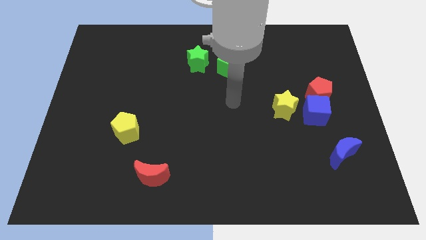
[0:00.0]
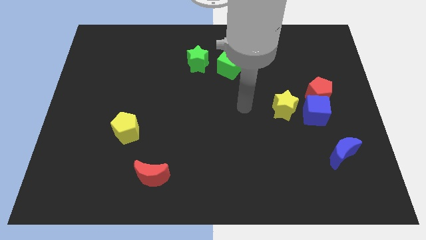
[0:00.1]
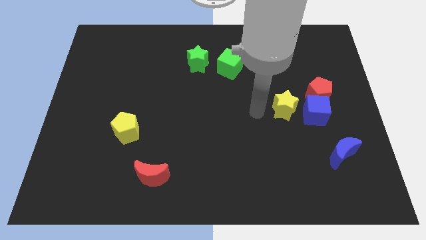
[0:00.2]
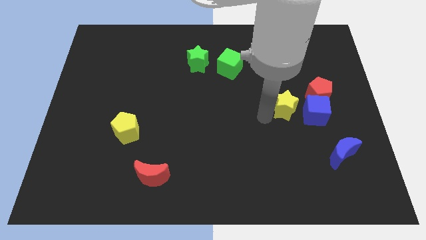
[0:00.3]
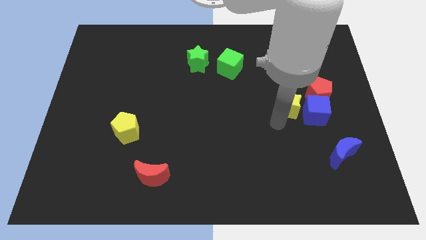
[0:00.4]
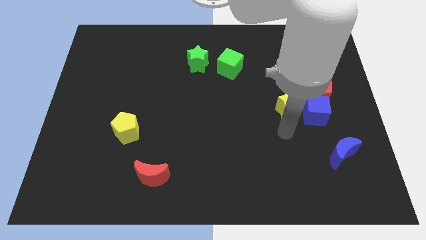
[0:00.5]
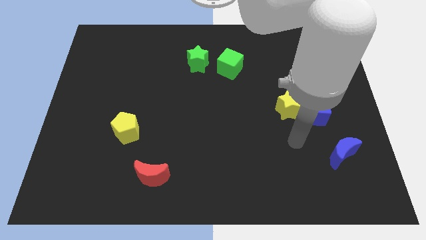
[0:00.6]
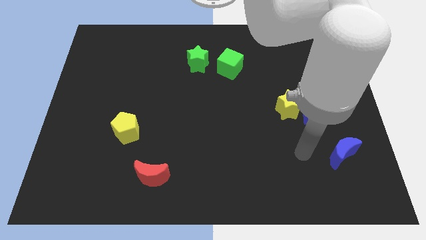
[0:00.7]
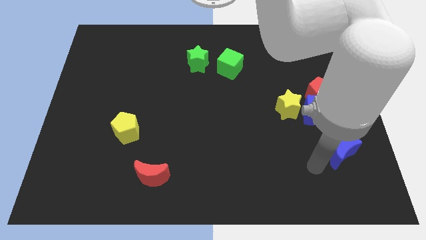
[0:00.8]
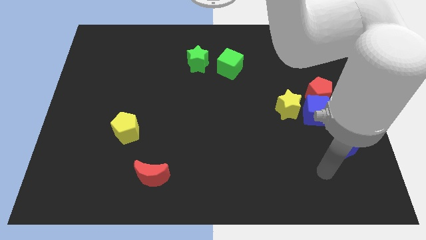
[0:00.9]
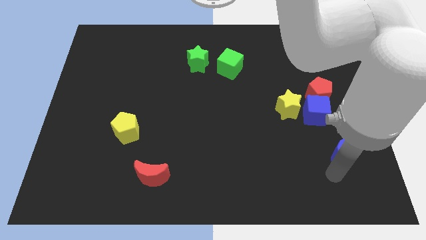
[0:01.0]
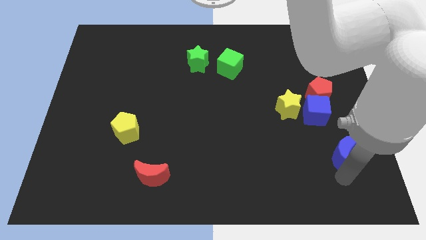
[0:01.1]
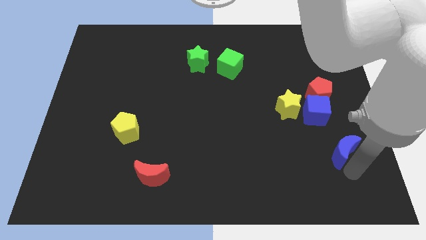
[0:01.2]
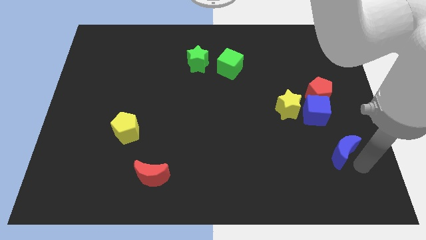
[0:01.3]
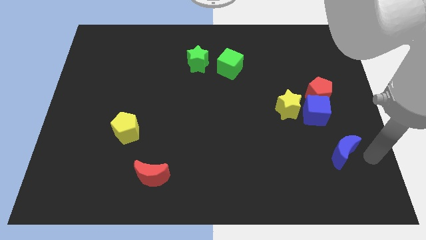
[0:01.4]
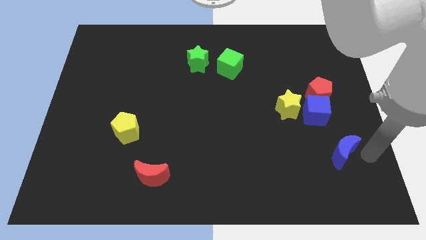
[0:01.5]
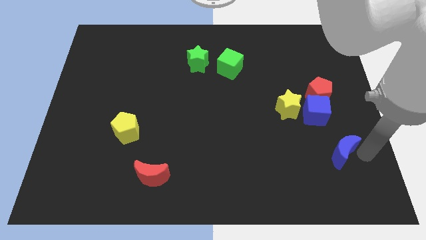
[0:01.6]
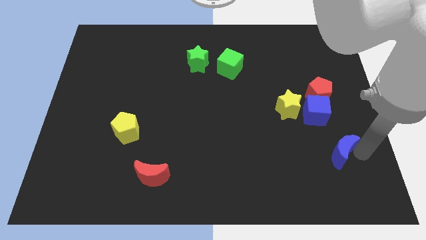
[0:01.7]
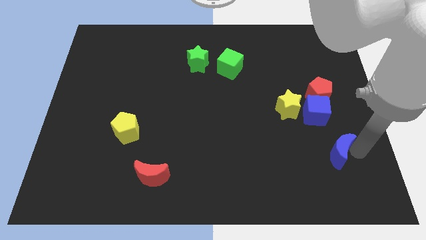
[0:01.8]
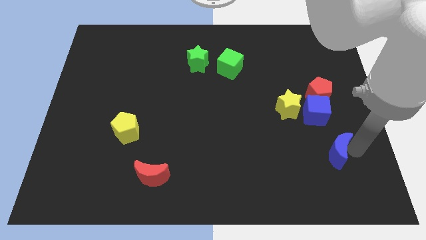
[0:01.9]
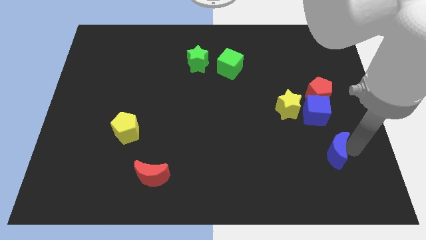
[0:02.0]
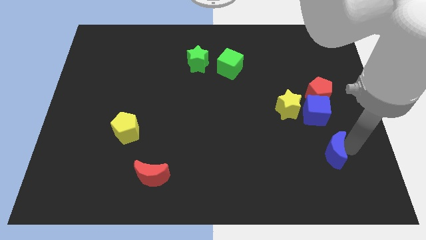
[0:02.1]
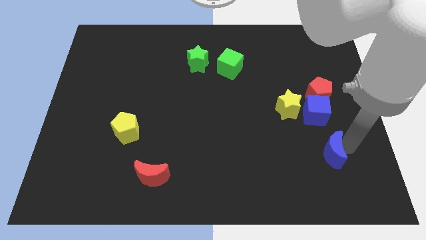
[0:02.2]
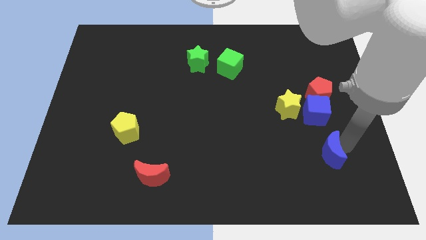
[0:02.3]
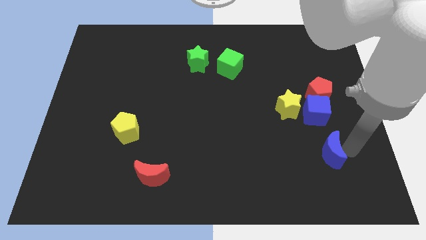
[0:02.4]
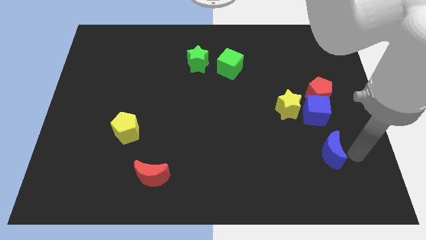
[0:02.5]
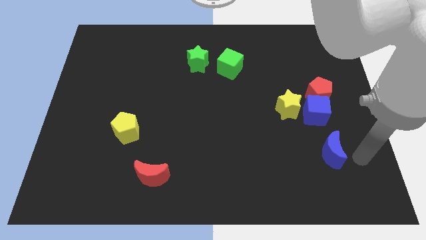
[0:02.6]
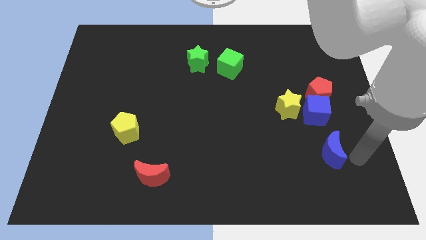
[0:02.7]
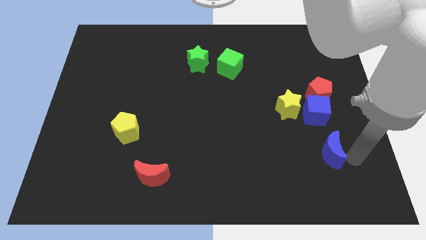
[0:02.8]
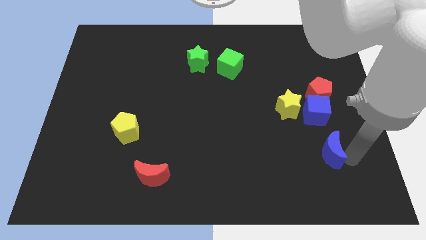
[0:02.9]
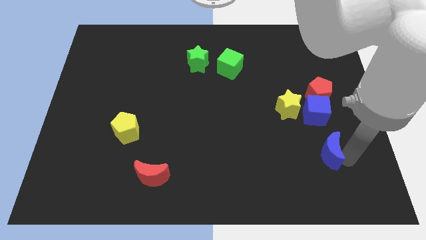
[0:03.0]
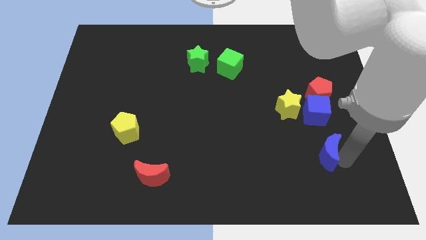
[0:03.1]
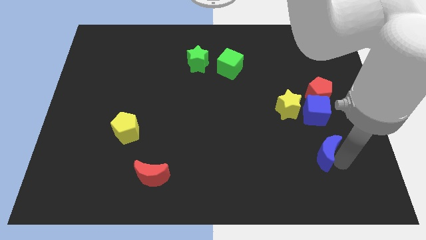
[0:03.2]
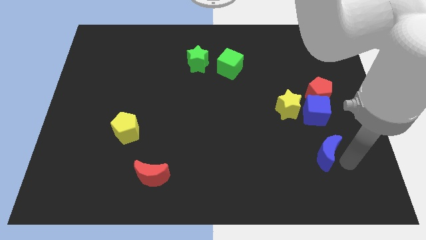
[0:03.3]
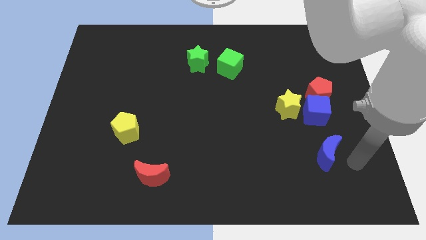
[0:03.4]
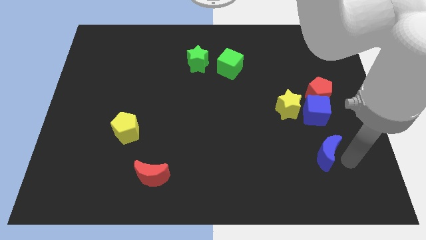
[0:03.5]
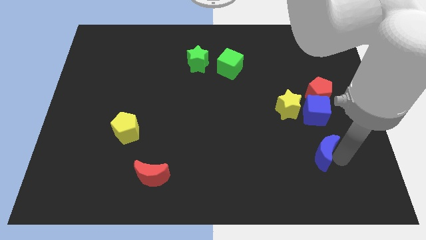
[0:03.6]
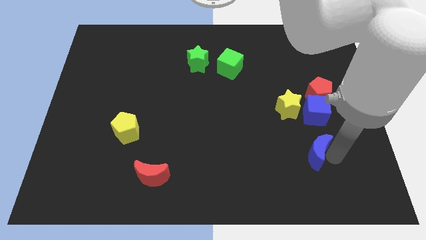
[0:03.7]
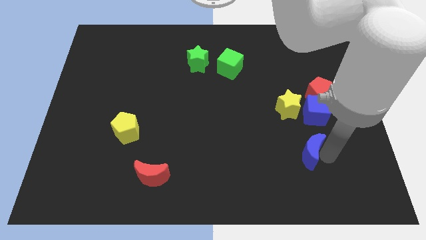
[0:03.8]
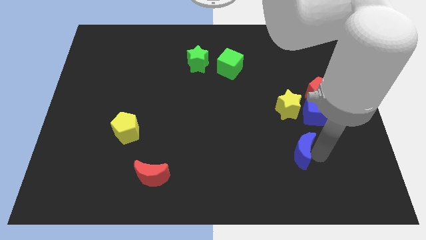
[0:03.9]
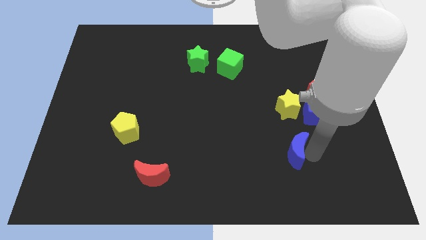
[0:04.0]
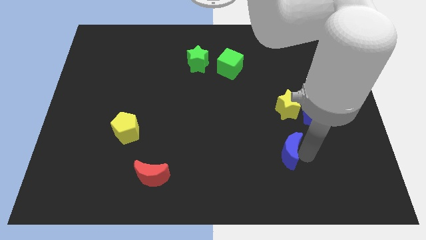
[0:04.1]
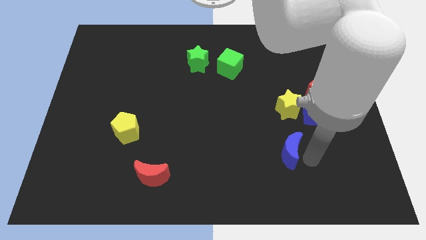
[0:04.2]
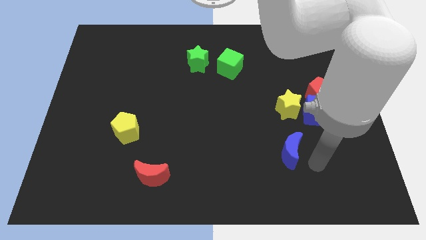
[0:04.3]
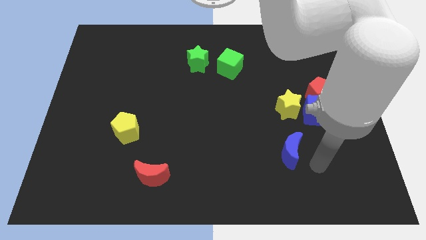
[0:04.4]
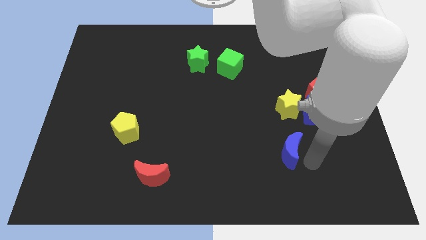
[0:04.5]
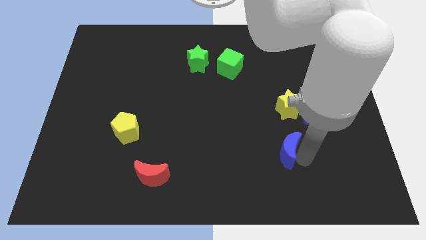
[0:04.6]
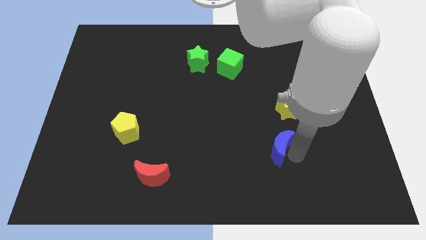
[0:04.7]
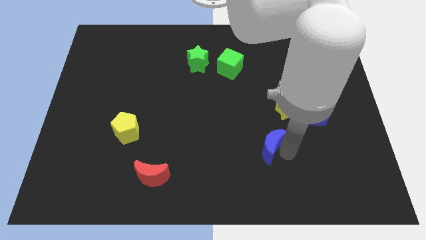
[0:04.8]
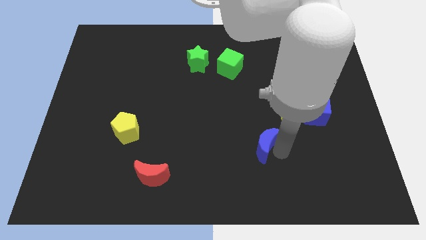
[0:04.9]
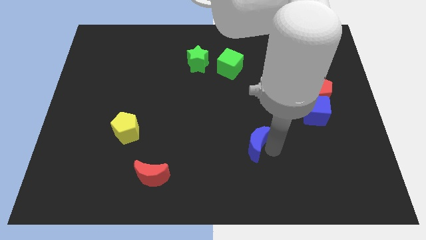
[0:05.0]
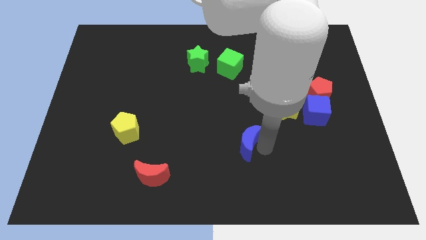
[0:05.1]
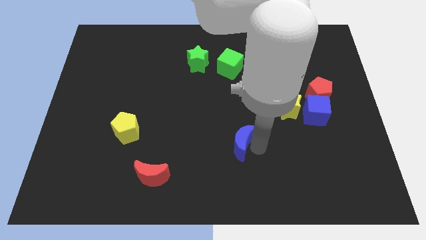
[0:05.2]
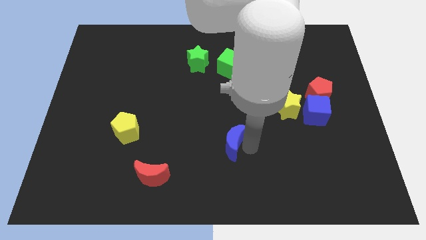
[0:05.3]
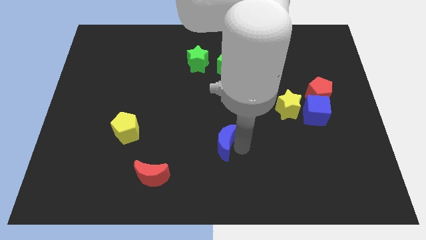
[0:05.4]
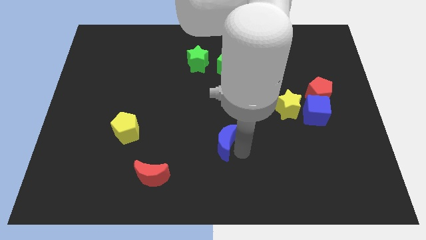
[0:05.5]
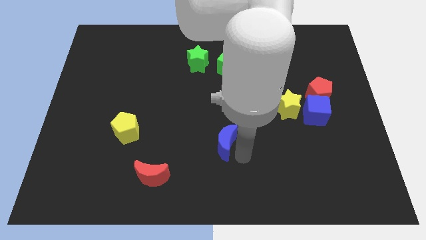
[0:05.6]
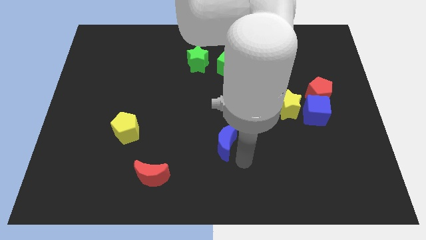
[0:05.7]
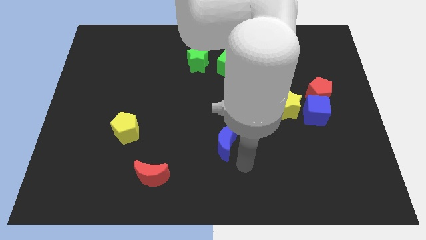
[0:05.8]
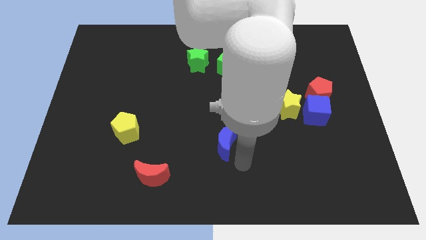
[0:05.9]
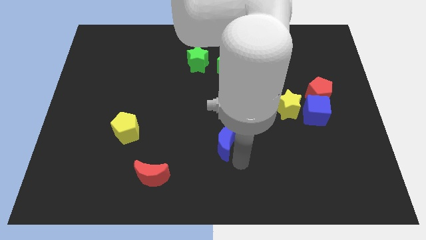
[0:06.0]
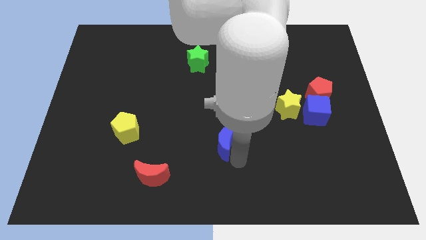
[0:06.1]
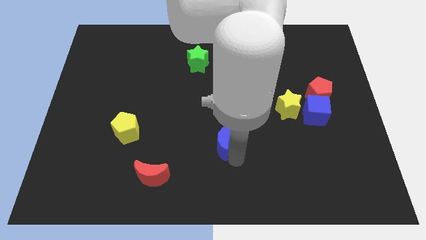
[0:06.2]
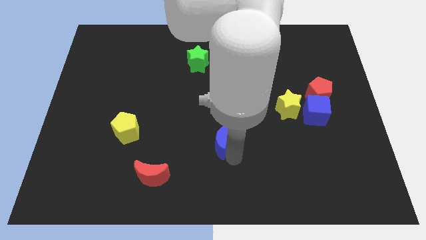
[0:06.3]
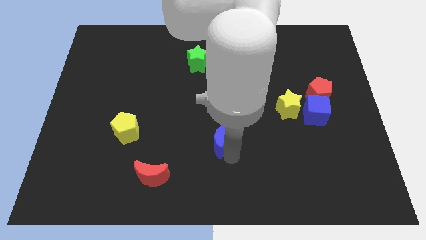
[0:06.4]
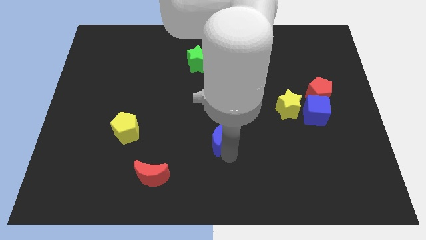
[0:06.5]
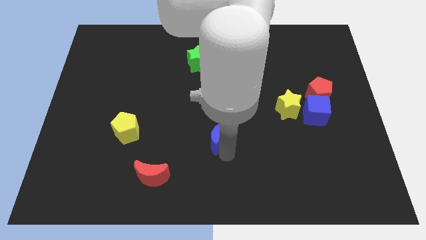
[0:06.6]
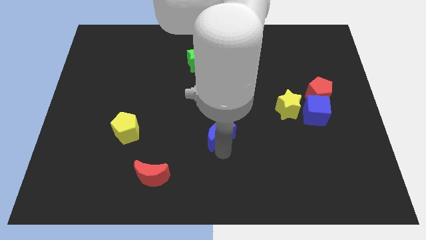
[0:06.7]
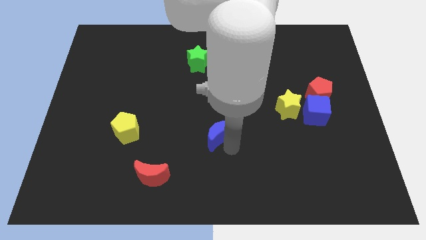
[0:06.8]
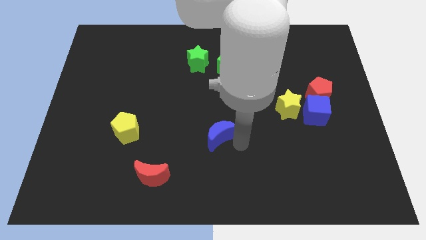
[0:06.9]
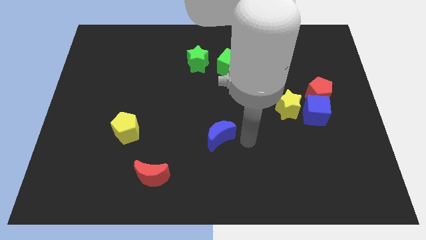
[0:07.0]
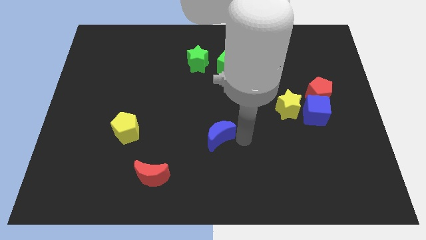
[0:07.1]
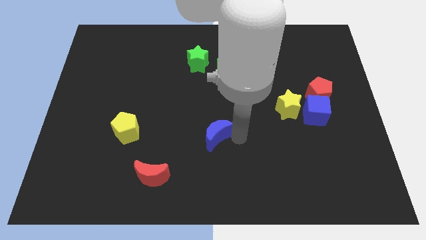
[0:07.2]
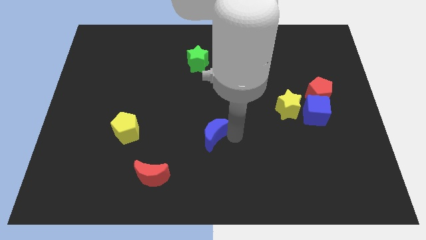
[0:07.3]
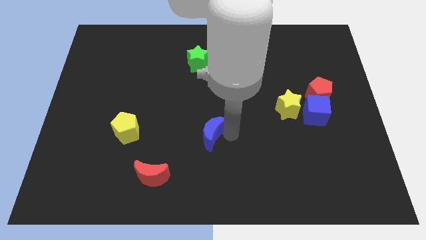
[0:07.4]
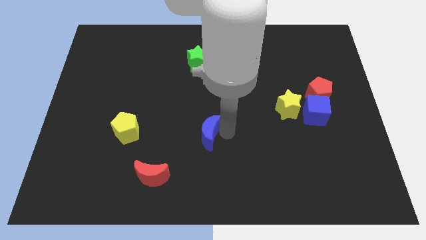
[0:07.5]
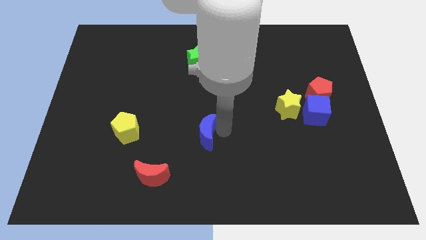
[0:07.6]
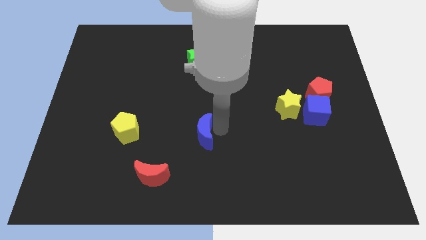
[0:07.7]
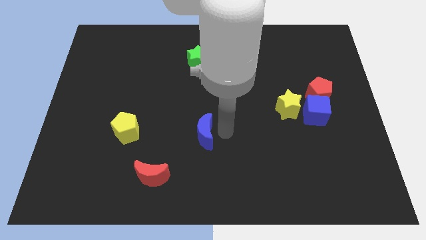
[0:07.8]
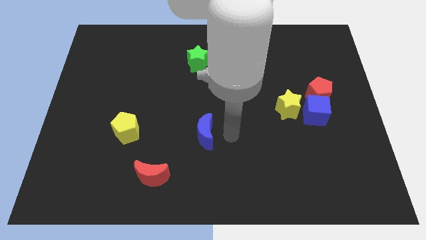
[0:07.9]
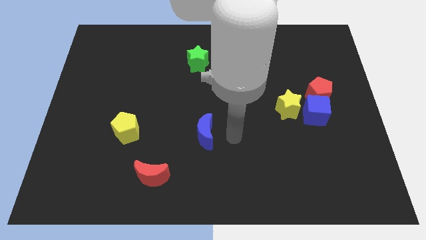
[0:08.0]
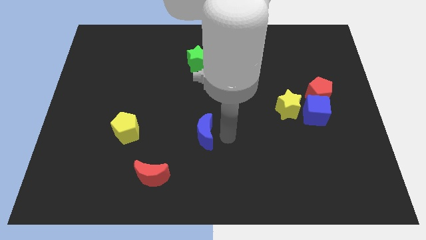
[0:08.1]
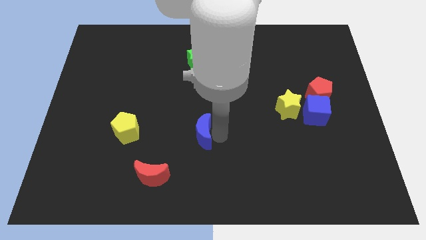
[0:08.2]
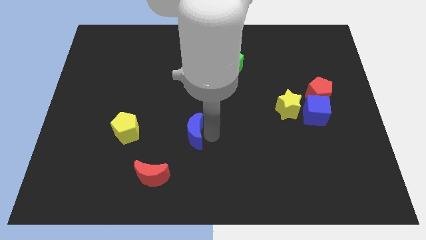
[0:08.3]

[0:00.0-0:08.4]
put the blue moon just right of the yellow pentagon
